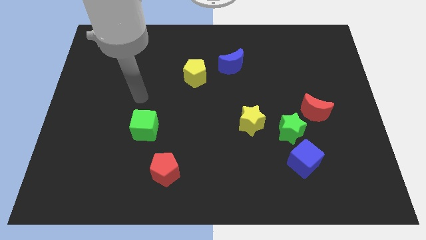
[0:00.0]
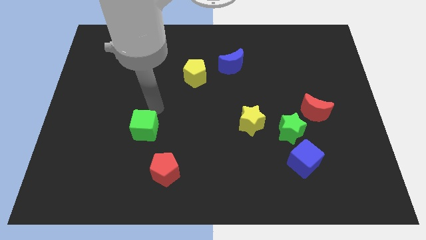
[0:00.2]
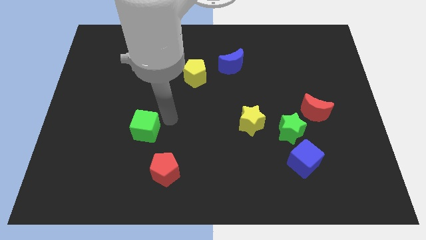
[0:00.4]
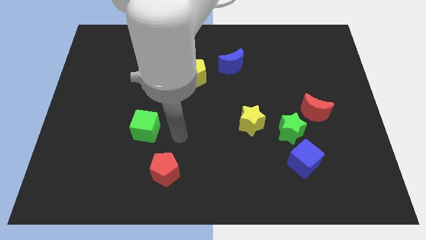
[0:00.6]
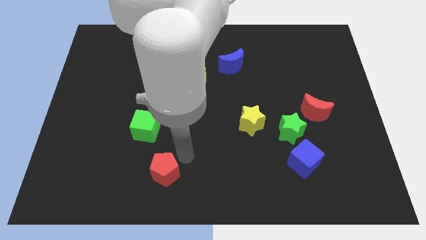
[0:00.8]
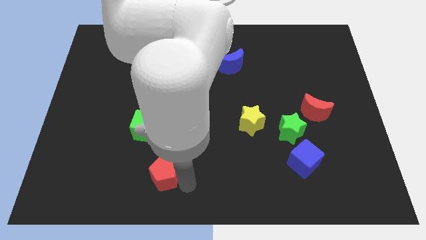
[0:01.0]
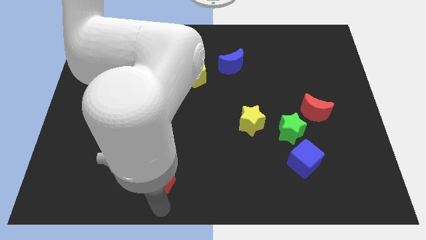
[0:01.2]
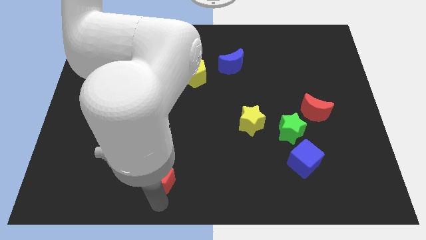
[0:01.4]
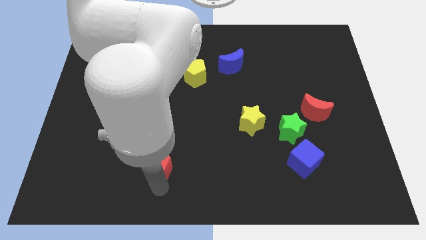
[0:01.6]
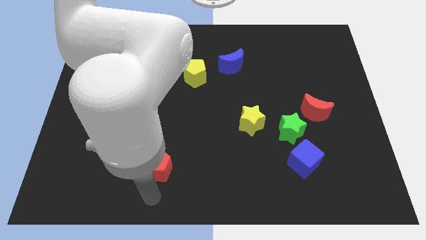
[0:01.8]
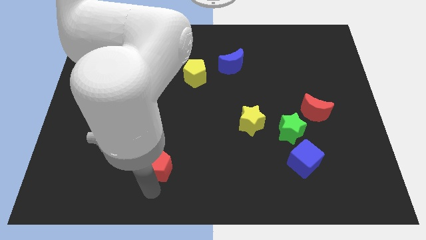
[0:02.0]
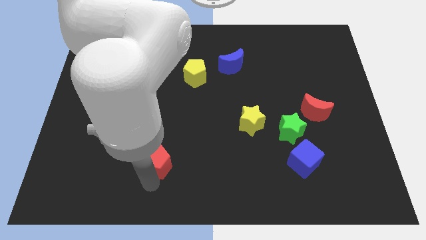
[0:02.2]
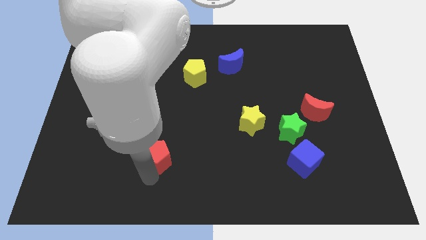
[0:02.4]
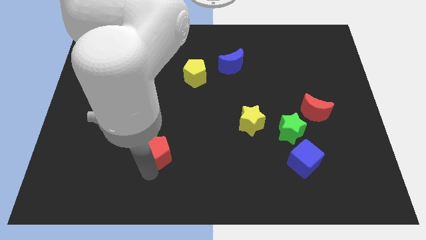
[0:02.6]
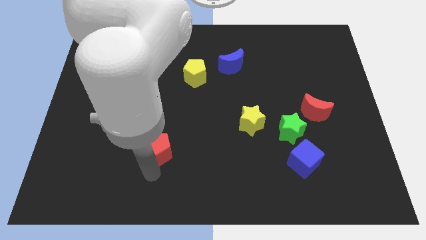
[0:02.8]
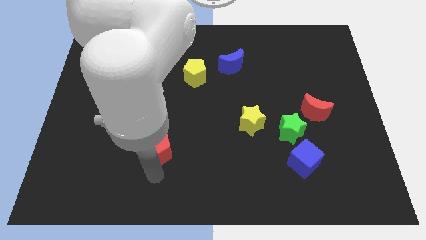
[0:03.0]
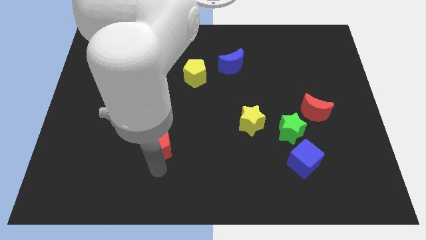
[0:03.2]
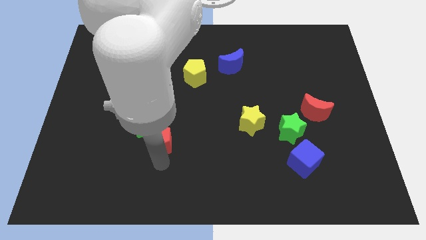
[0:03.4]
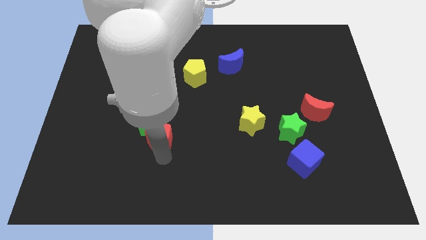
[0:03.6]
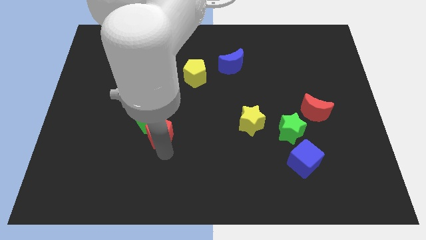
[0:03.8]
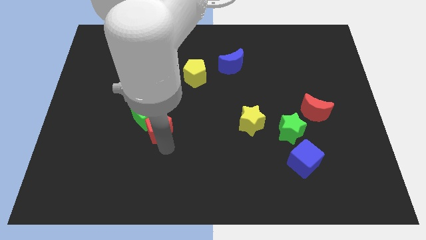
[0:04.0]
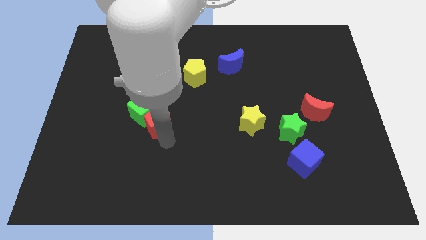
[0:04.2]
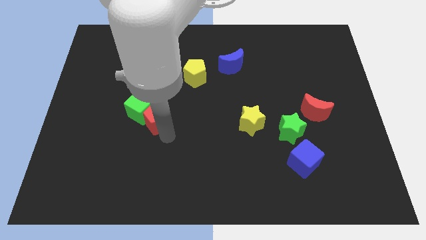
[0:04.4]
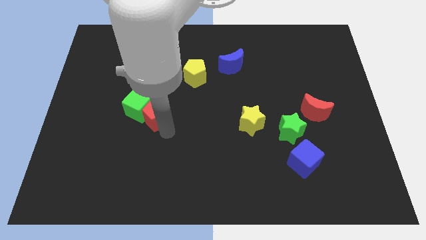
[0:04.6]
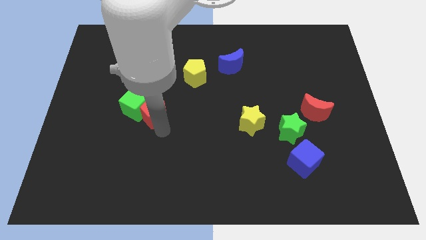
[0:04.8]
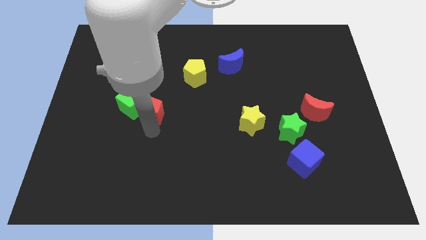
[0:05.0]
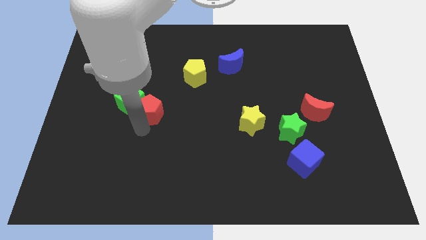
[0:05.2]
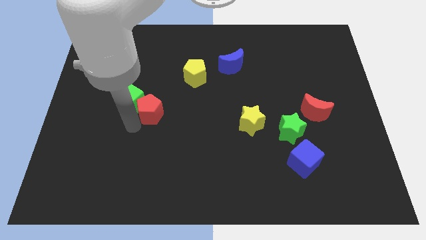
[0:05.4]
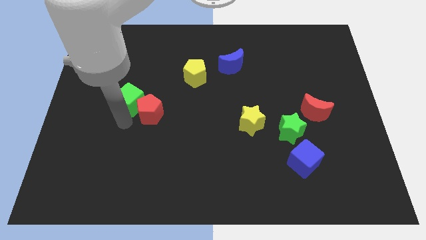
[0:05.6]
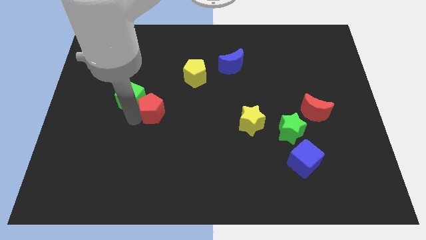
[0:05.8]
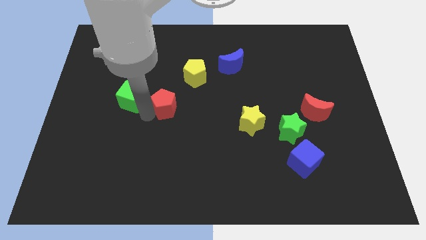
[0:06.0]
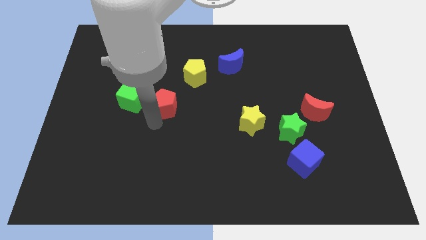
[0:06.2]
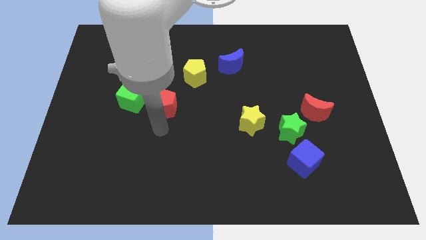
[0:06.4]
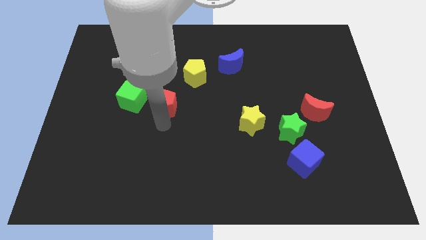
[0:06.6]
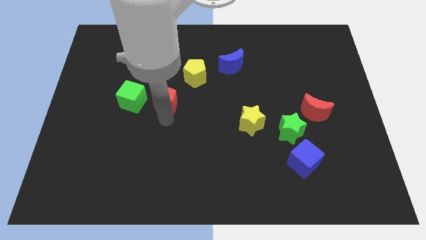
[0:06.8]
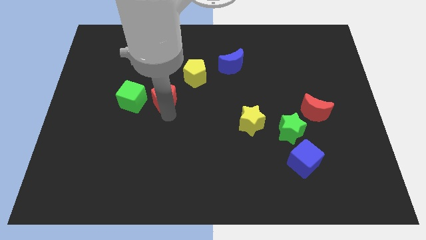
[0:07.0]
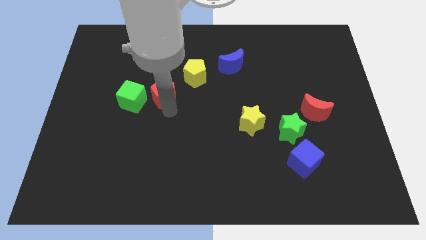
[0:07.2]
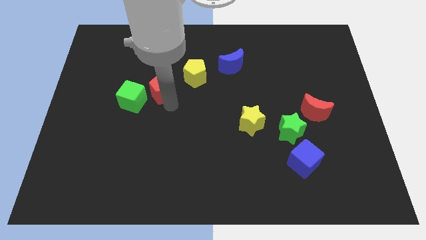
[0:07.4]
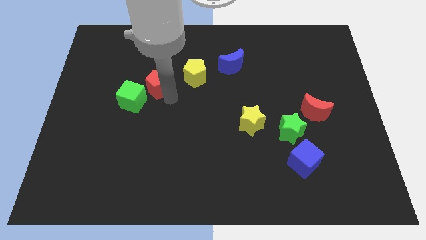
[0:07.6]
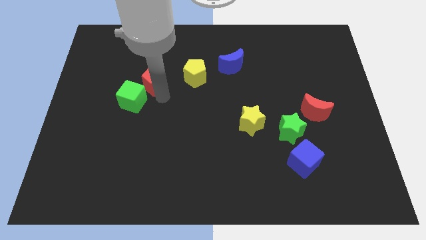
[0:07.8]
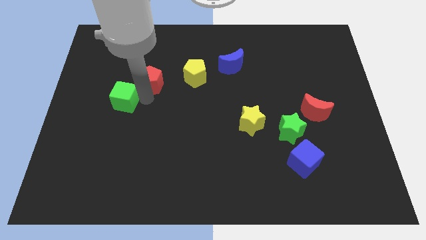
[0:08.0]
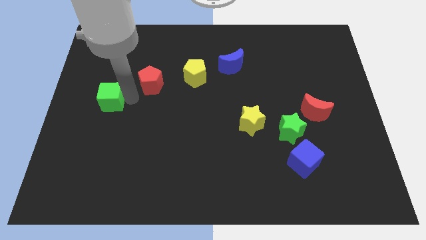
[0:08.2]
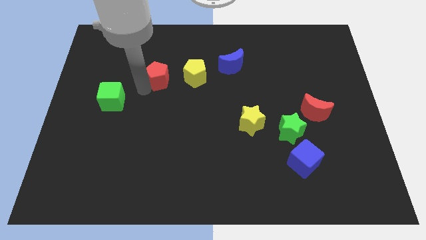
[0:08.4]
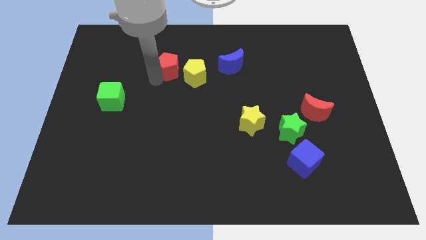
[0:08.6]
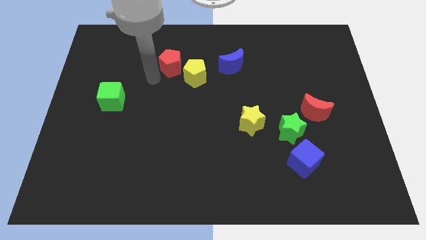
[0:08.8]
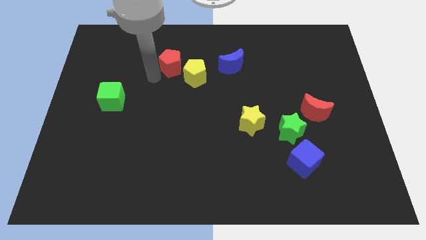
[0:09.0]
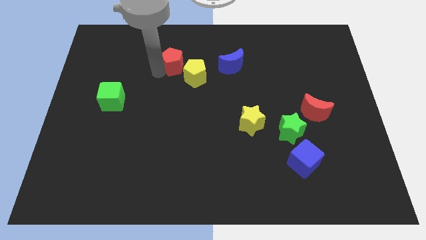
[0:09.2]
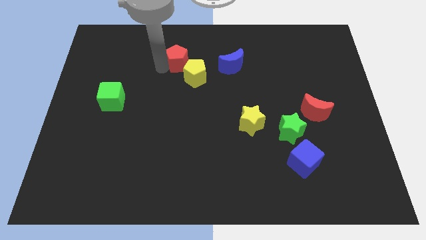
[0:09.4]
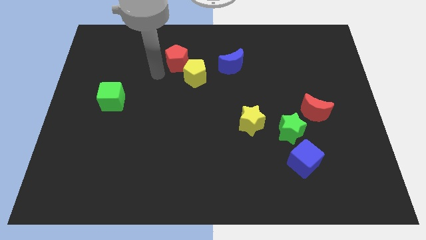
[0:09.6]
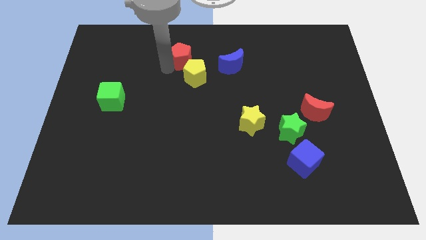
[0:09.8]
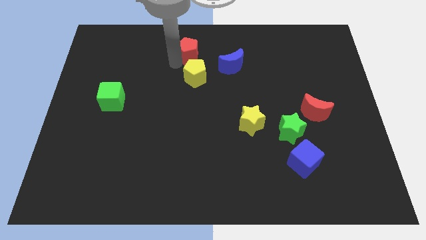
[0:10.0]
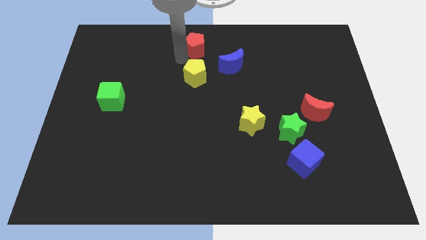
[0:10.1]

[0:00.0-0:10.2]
push the red pentagon to the top

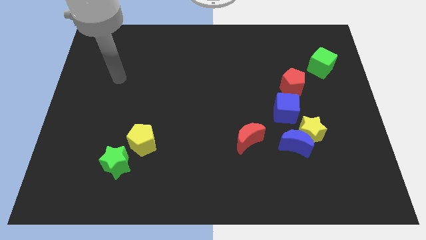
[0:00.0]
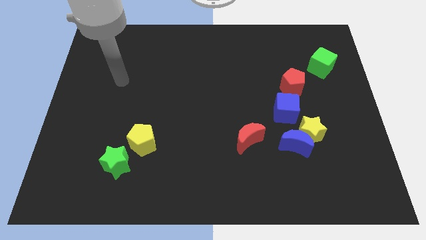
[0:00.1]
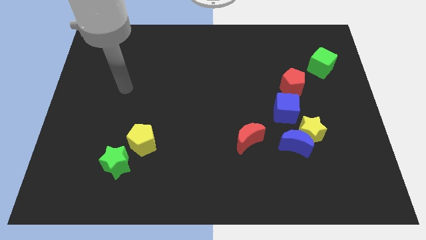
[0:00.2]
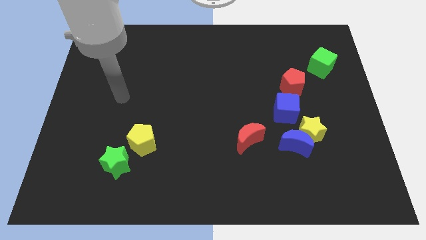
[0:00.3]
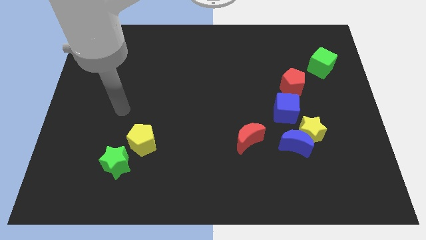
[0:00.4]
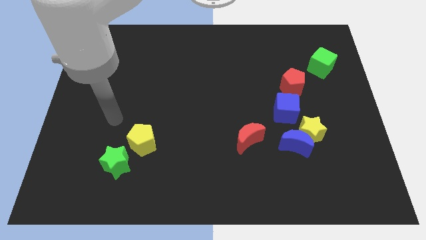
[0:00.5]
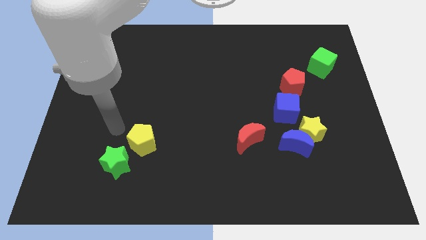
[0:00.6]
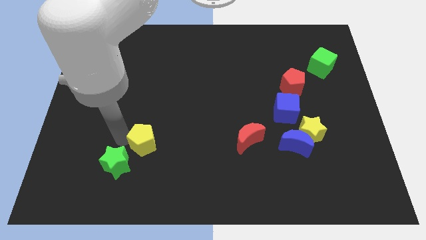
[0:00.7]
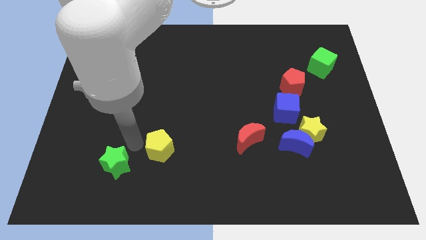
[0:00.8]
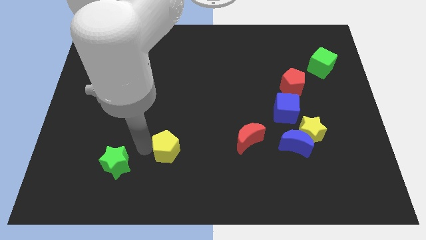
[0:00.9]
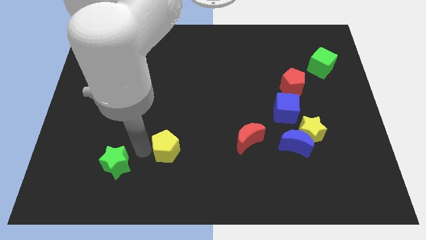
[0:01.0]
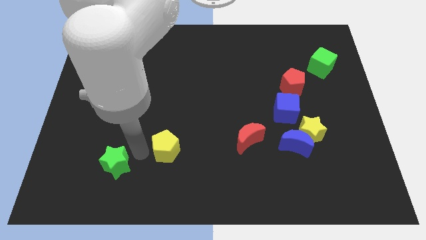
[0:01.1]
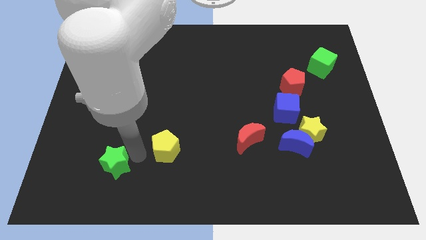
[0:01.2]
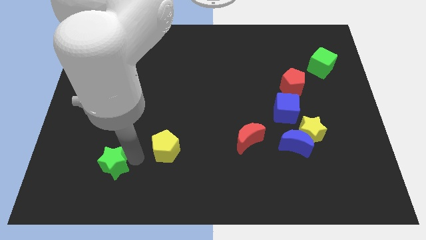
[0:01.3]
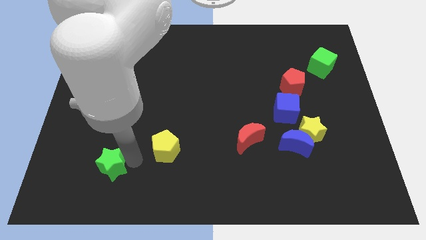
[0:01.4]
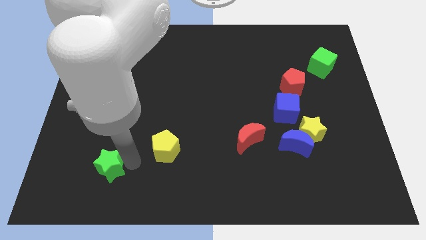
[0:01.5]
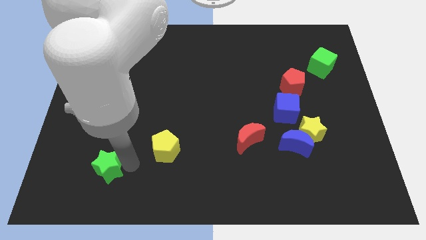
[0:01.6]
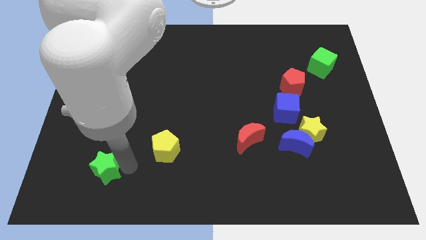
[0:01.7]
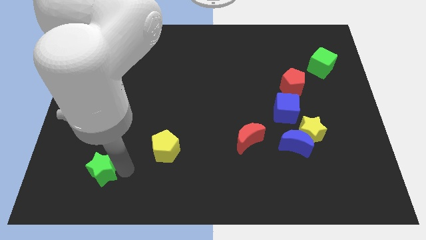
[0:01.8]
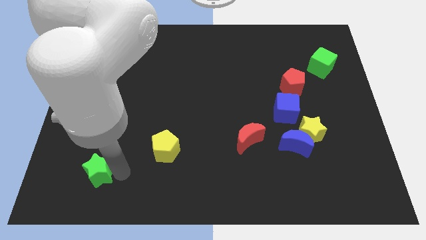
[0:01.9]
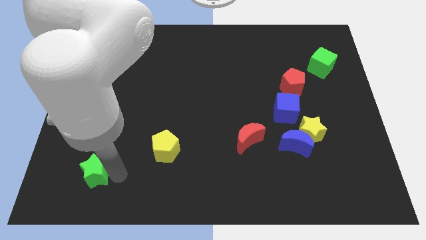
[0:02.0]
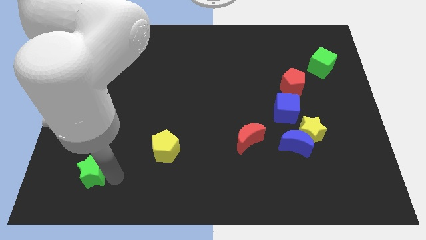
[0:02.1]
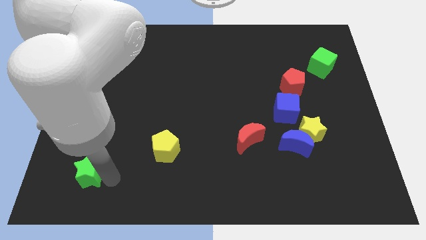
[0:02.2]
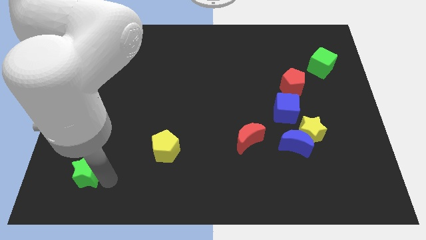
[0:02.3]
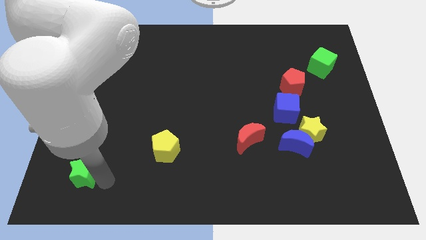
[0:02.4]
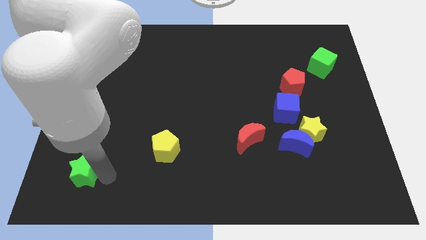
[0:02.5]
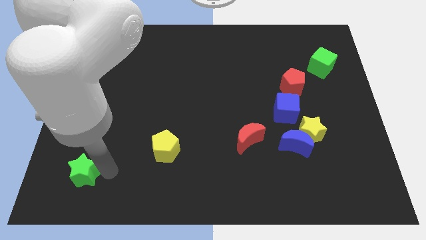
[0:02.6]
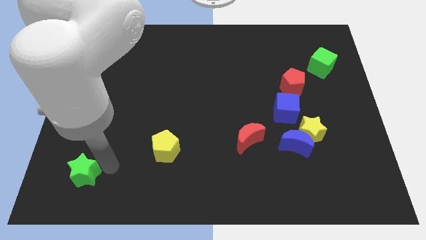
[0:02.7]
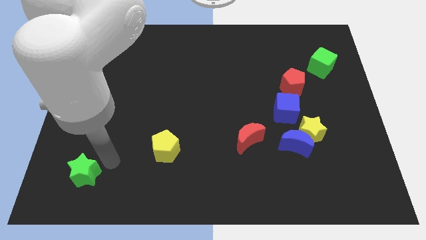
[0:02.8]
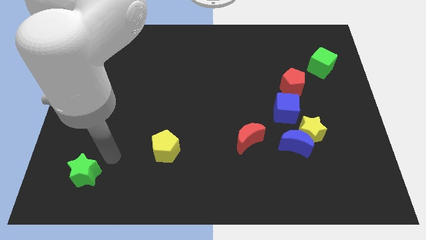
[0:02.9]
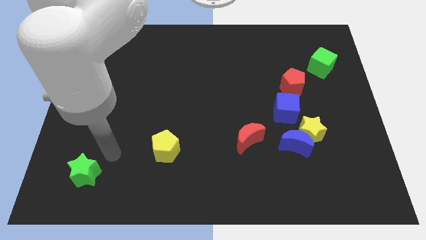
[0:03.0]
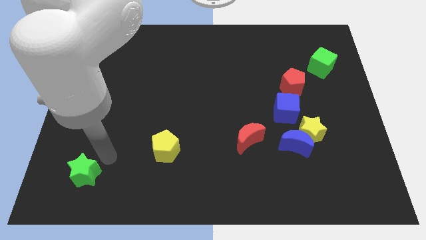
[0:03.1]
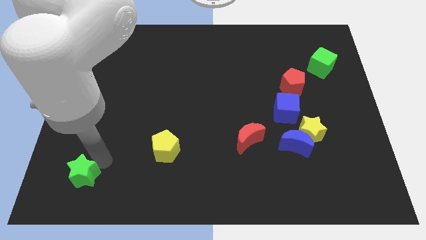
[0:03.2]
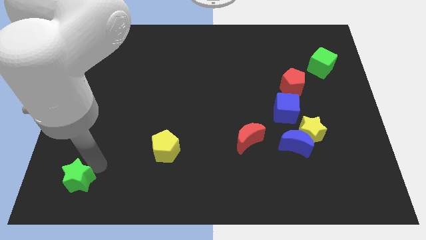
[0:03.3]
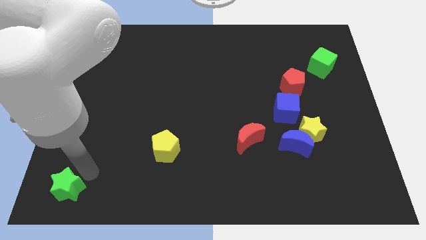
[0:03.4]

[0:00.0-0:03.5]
move the green star to the bottom left of the board
